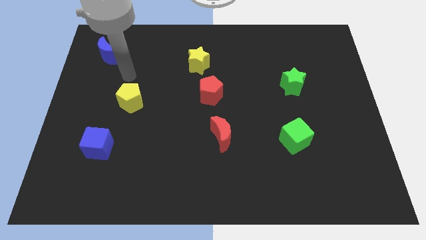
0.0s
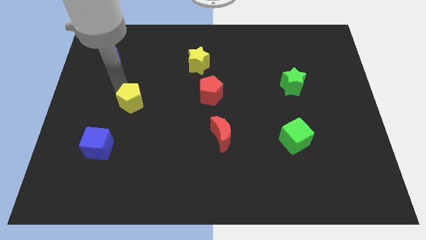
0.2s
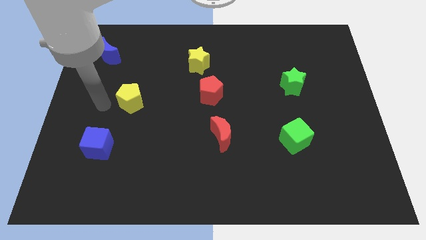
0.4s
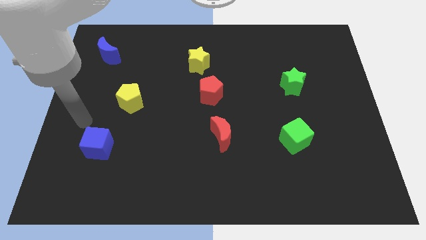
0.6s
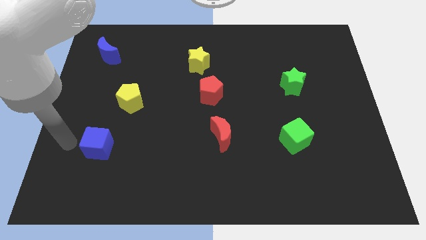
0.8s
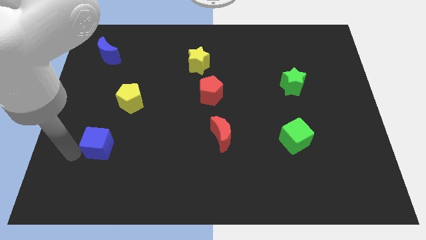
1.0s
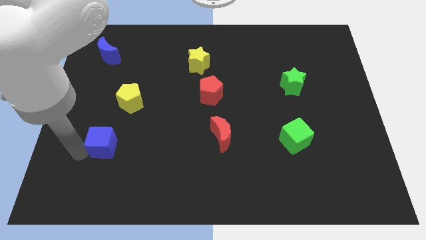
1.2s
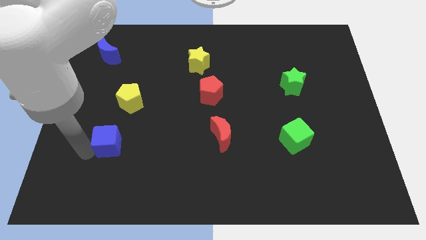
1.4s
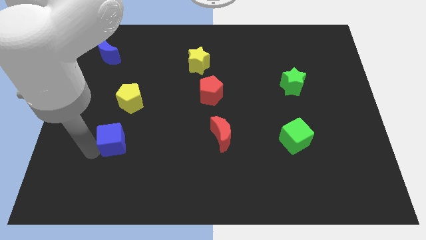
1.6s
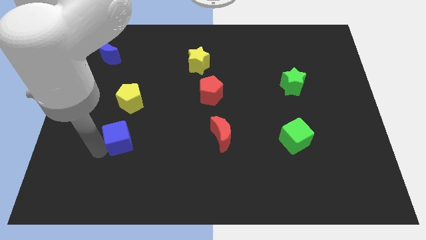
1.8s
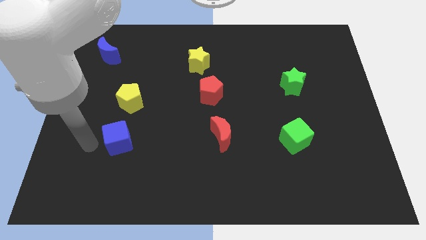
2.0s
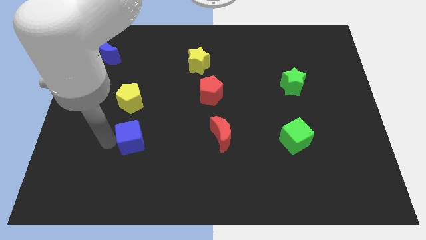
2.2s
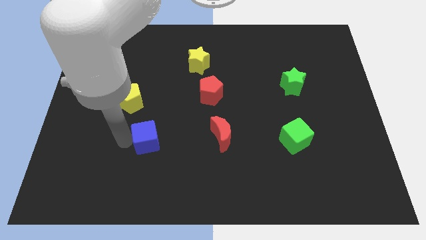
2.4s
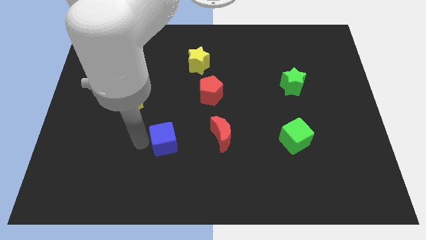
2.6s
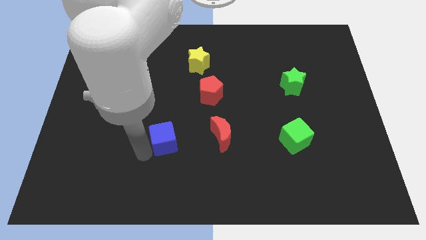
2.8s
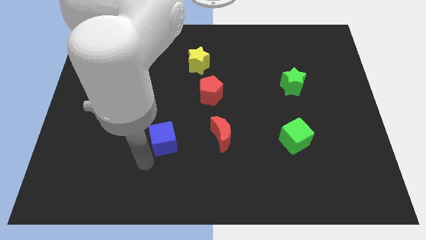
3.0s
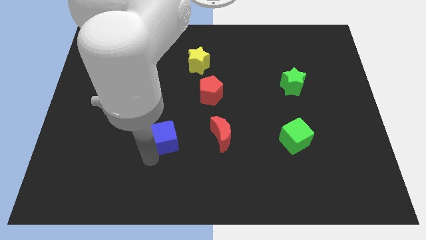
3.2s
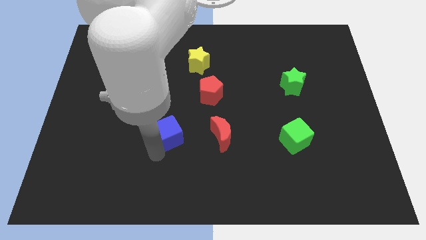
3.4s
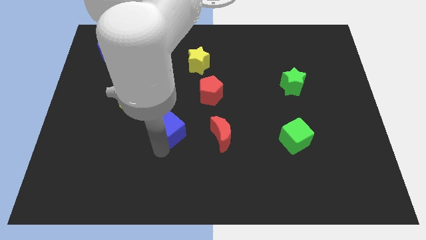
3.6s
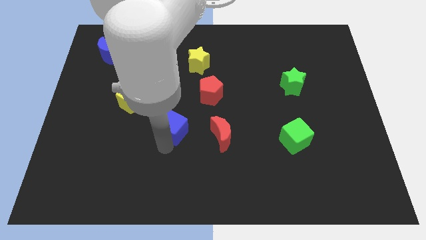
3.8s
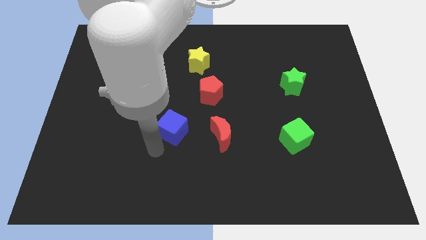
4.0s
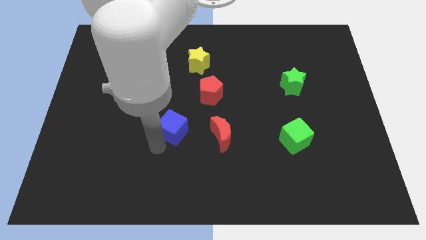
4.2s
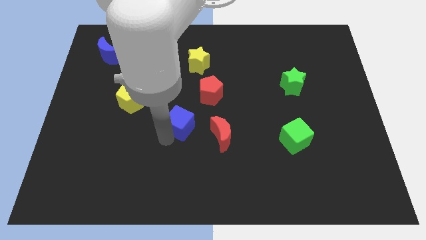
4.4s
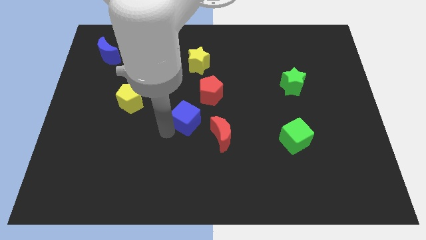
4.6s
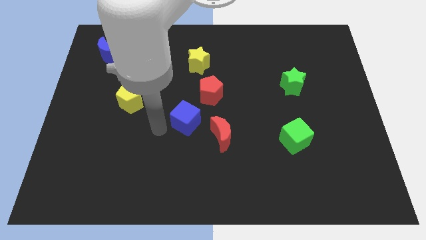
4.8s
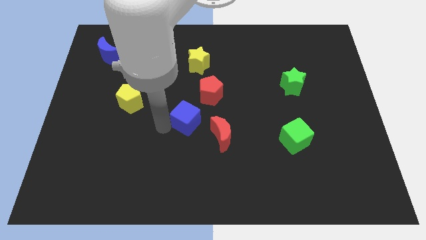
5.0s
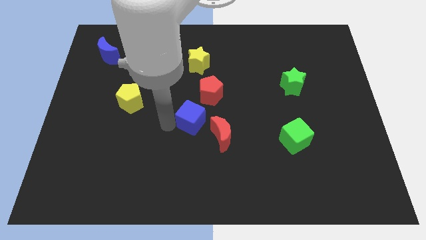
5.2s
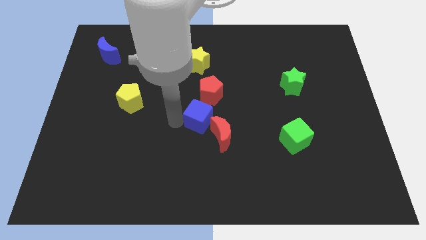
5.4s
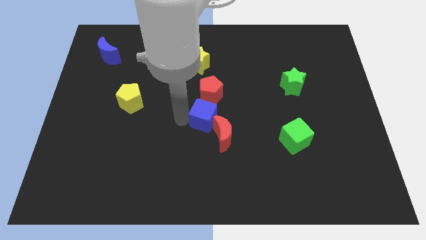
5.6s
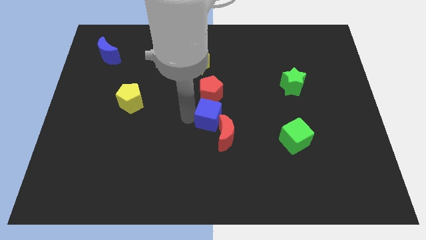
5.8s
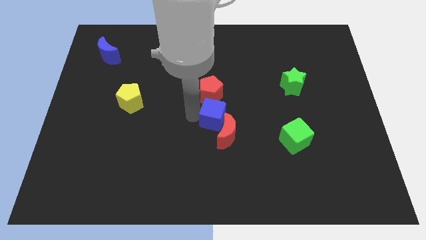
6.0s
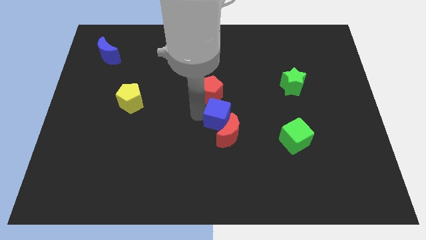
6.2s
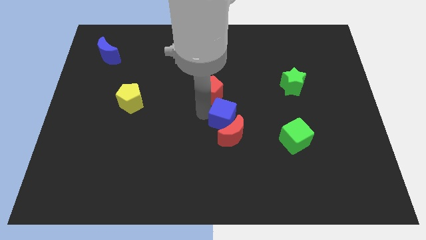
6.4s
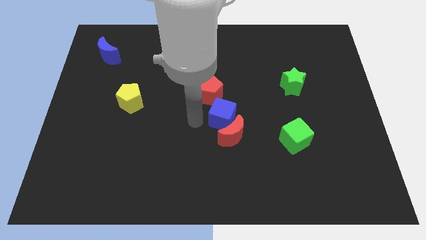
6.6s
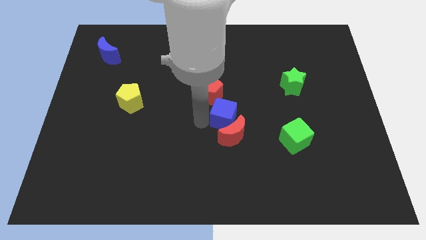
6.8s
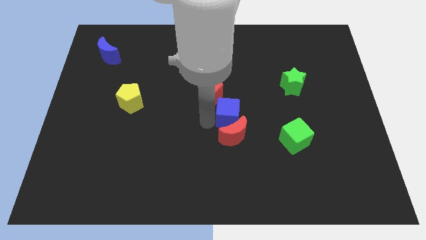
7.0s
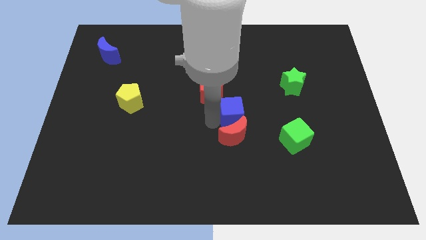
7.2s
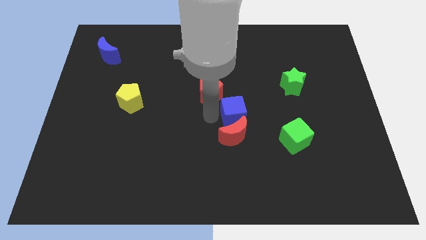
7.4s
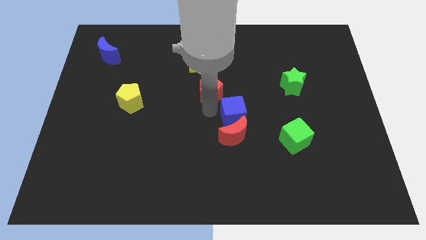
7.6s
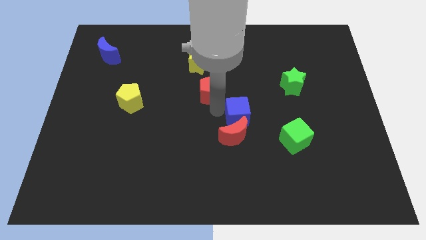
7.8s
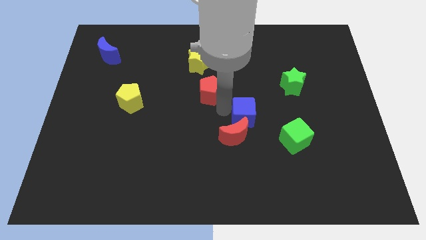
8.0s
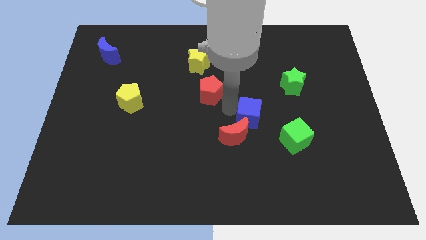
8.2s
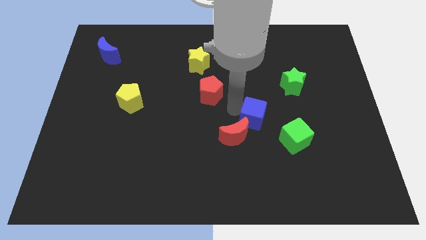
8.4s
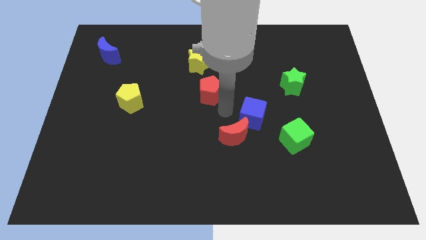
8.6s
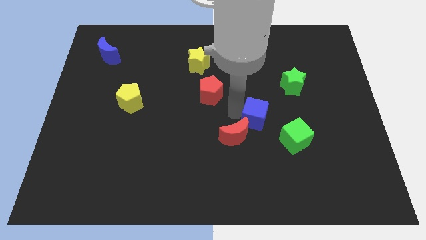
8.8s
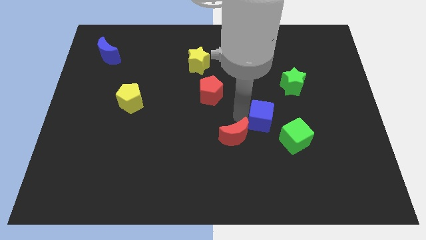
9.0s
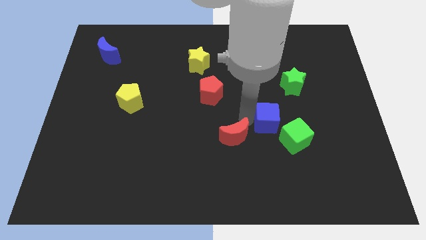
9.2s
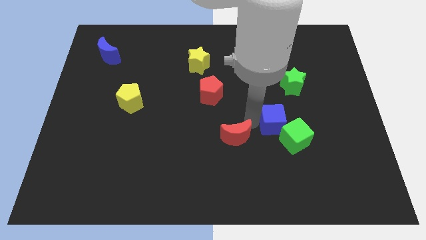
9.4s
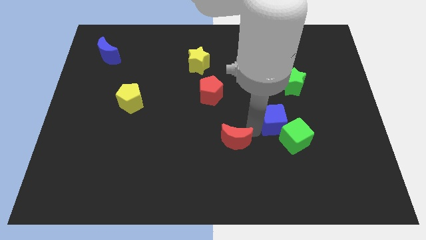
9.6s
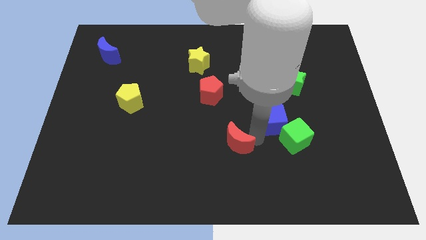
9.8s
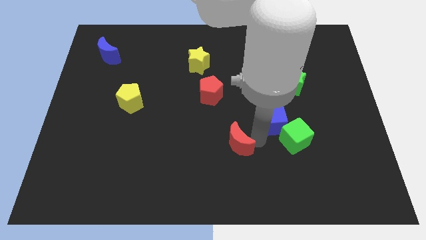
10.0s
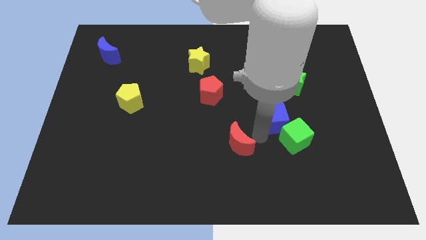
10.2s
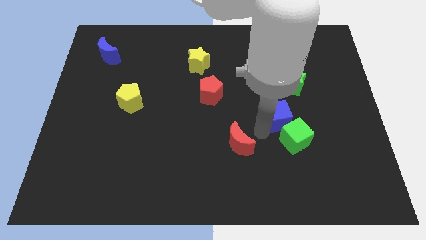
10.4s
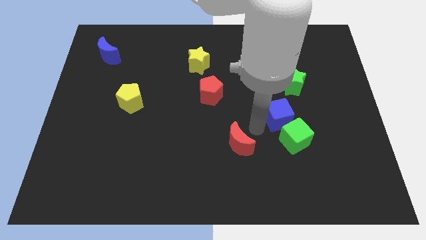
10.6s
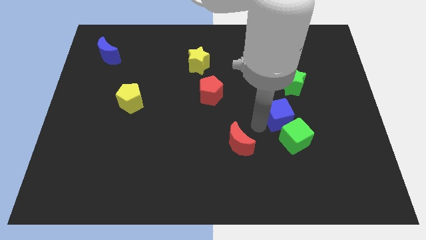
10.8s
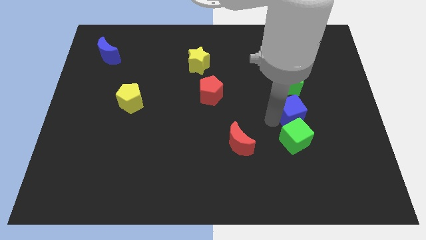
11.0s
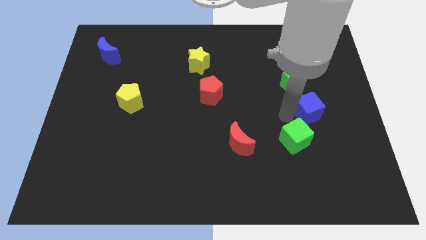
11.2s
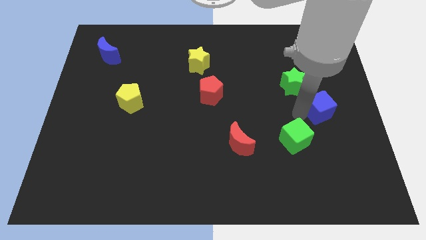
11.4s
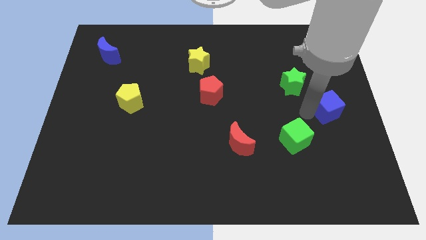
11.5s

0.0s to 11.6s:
put the blue cube to the center right
